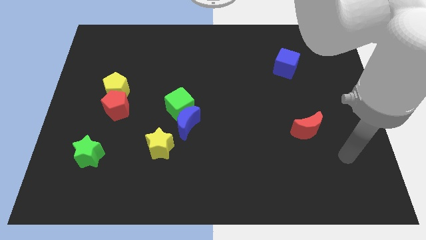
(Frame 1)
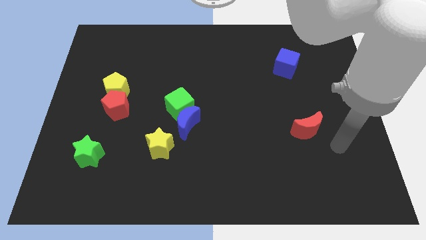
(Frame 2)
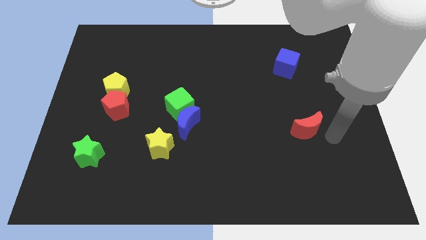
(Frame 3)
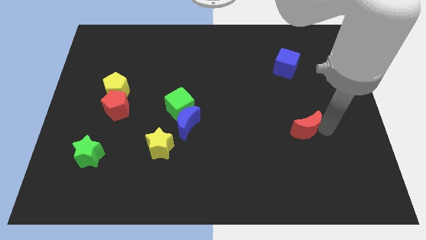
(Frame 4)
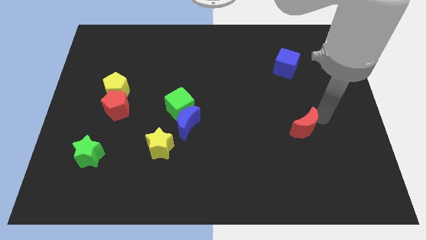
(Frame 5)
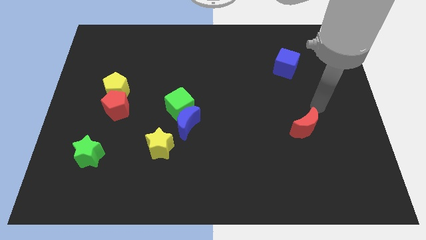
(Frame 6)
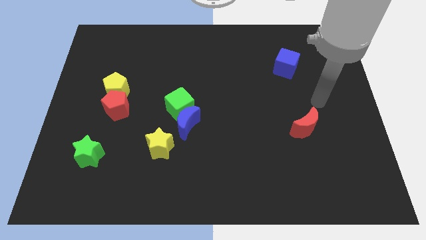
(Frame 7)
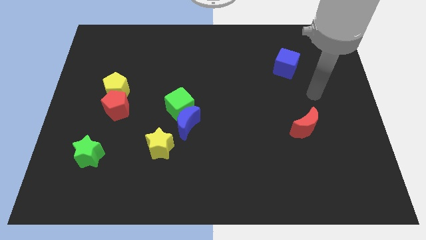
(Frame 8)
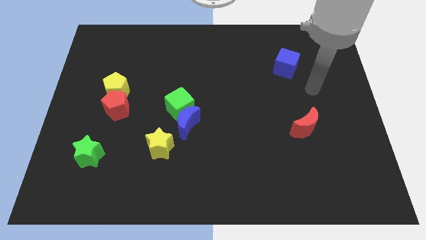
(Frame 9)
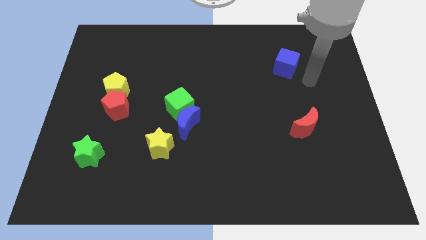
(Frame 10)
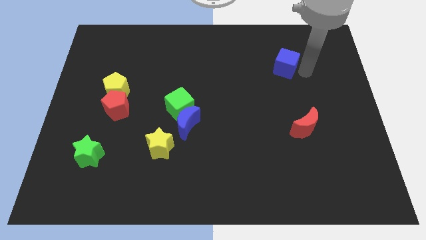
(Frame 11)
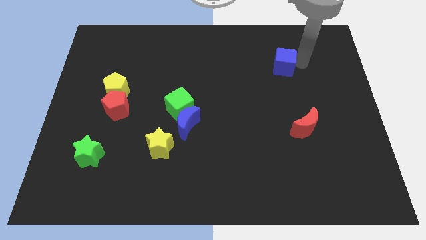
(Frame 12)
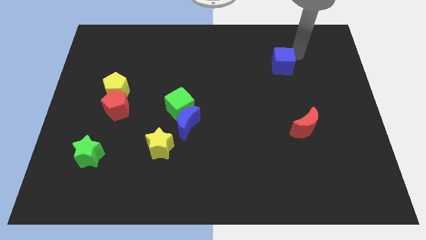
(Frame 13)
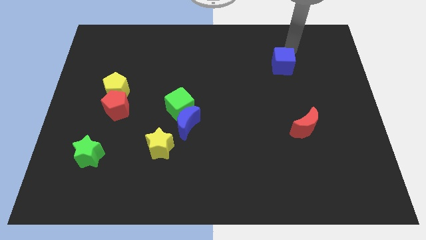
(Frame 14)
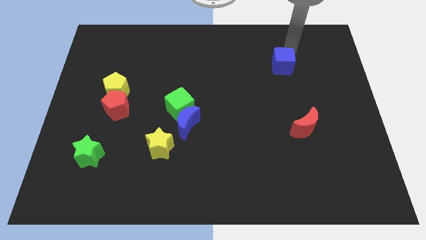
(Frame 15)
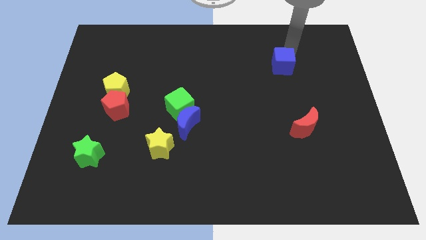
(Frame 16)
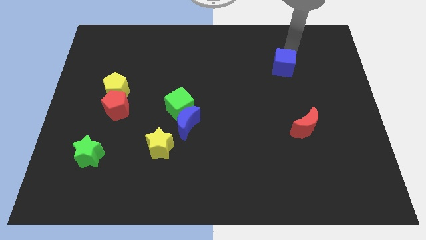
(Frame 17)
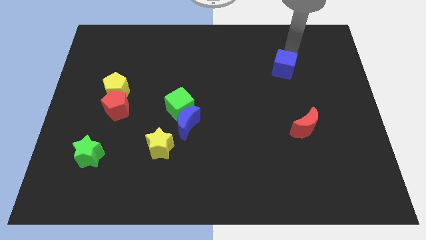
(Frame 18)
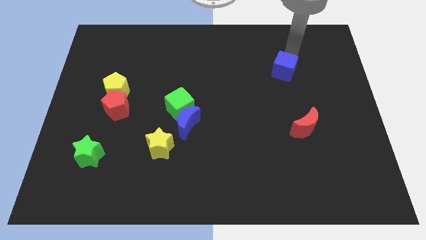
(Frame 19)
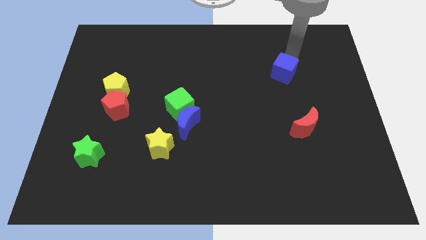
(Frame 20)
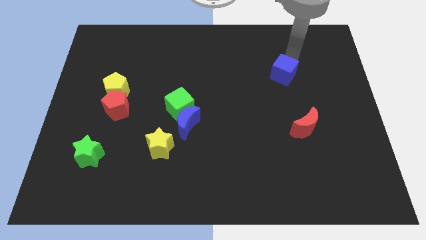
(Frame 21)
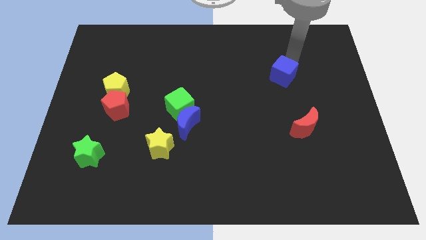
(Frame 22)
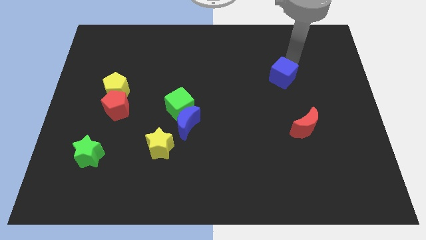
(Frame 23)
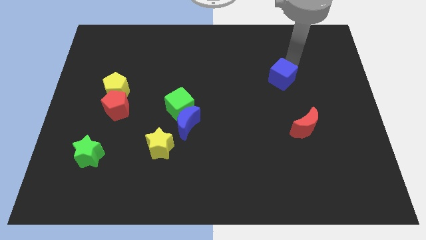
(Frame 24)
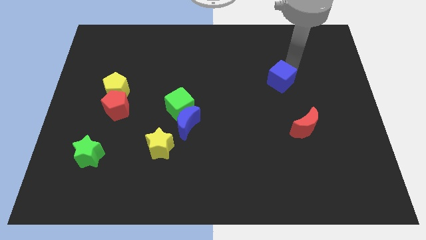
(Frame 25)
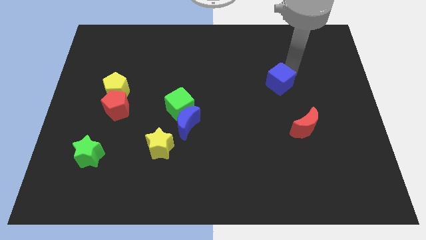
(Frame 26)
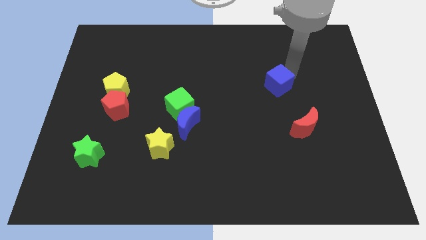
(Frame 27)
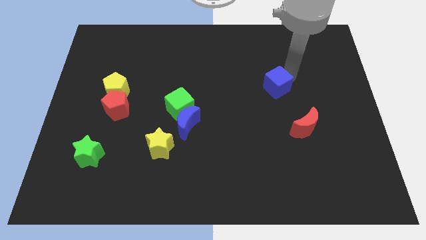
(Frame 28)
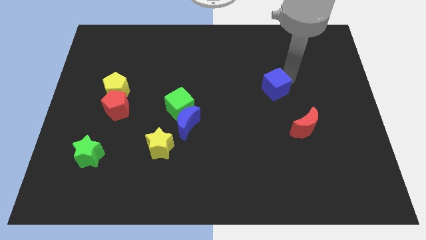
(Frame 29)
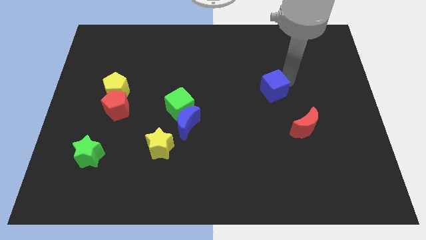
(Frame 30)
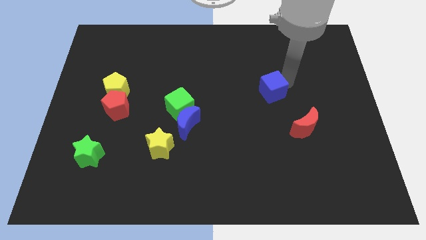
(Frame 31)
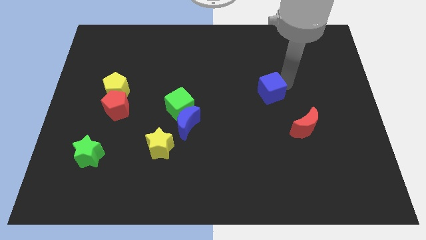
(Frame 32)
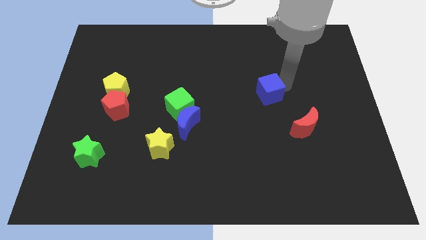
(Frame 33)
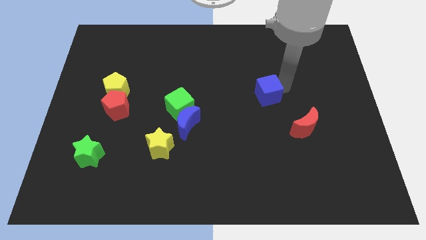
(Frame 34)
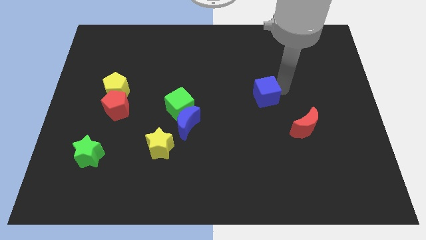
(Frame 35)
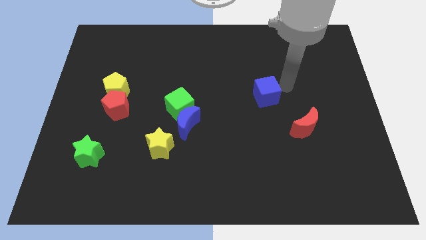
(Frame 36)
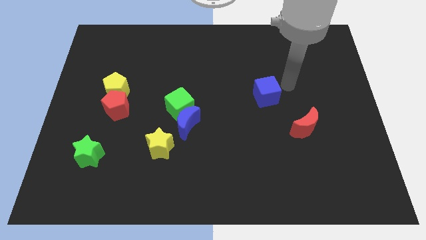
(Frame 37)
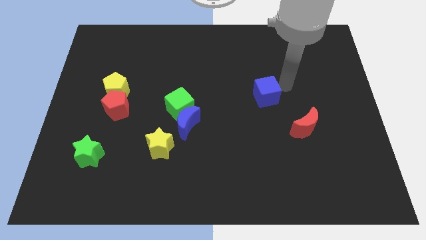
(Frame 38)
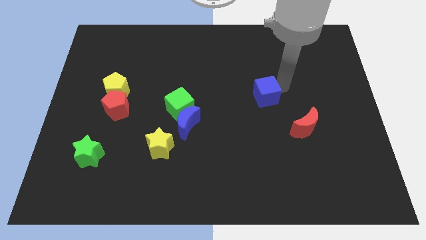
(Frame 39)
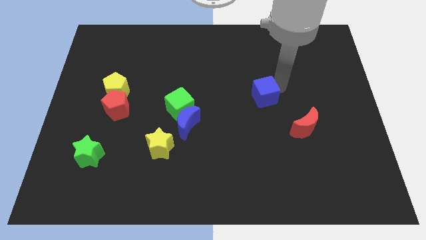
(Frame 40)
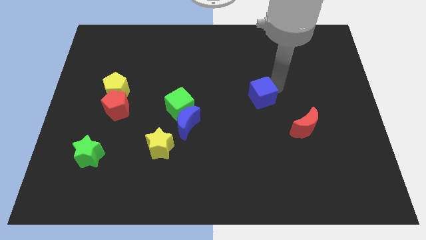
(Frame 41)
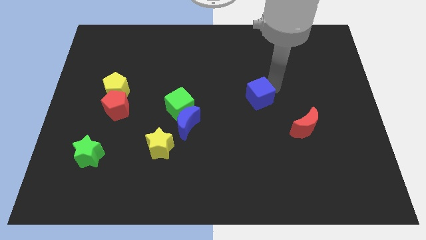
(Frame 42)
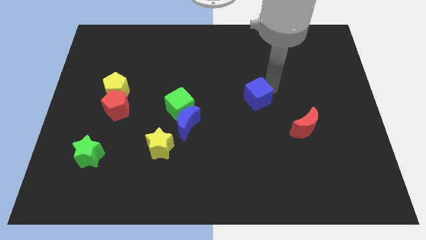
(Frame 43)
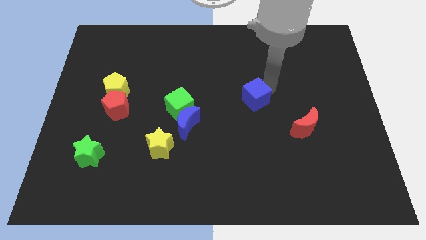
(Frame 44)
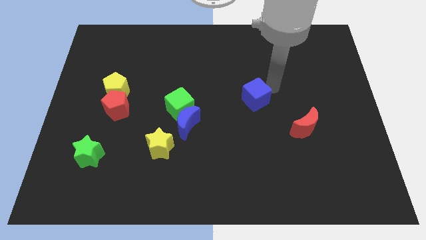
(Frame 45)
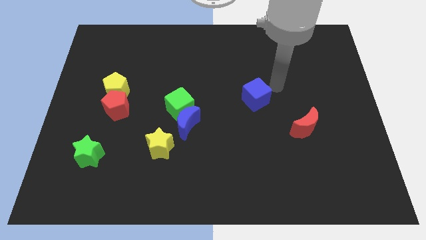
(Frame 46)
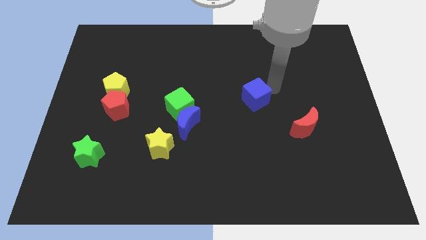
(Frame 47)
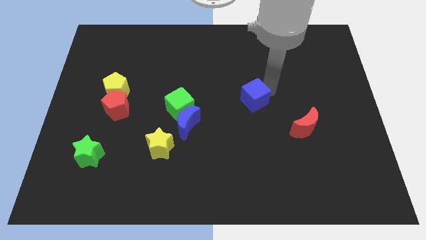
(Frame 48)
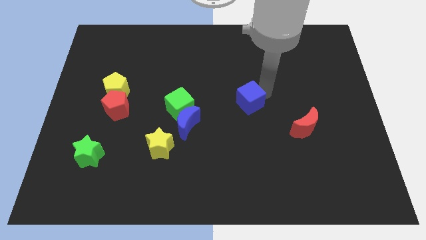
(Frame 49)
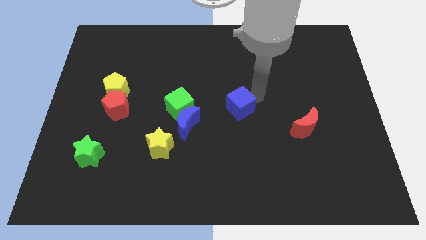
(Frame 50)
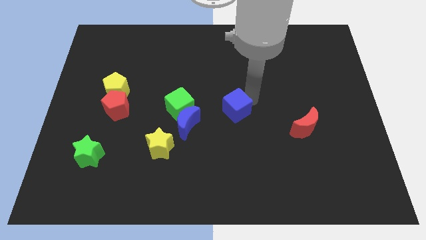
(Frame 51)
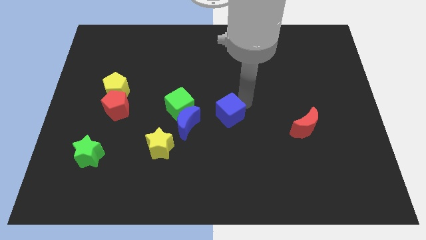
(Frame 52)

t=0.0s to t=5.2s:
slide the blue cube down and to the left diagonally

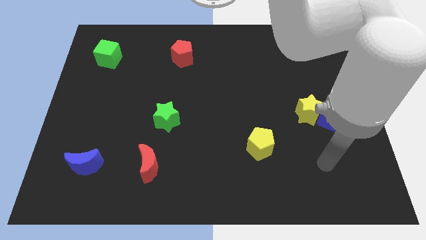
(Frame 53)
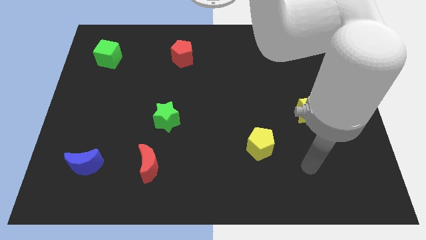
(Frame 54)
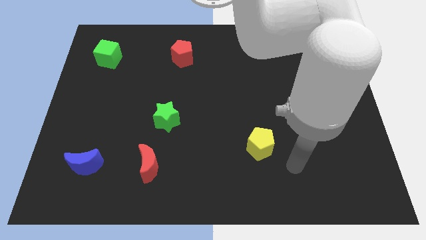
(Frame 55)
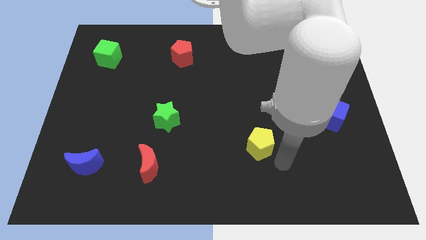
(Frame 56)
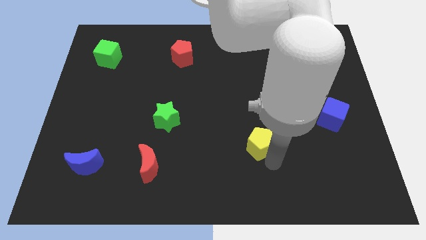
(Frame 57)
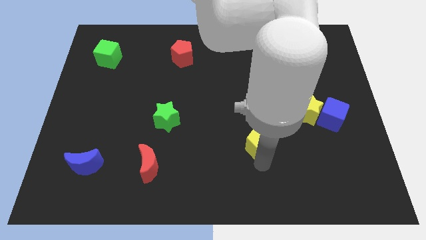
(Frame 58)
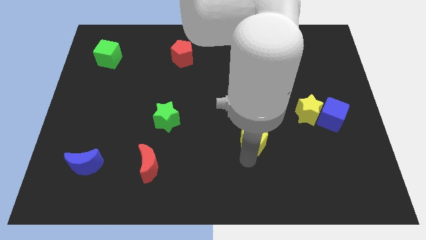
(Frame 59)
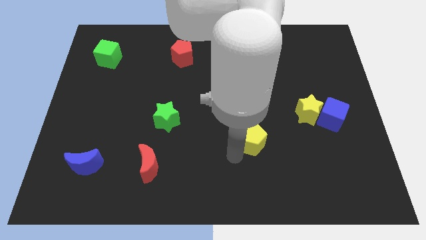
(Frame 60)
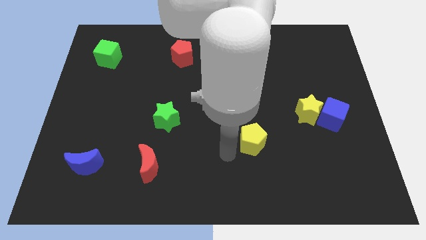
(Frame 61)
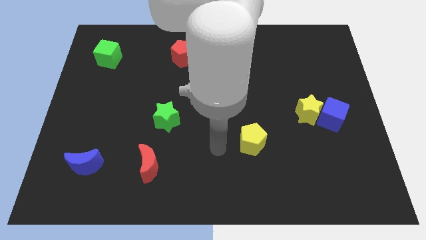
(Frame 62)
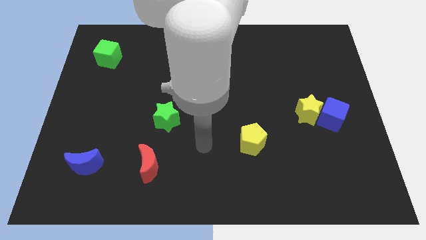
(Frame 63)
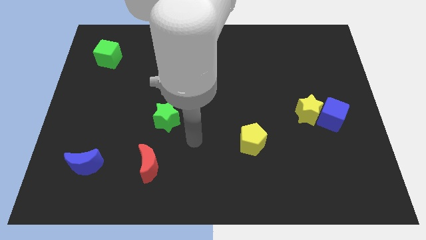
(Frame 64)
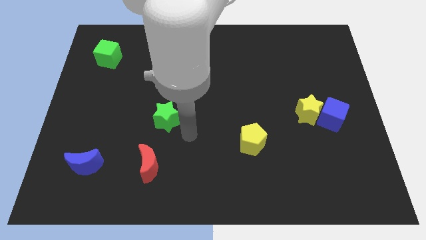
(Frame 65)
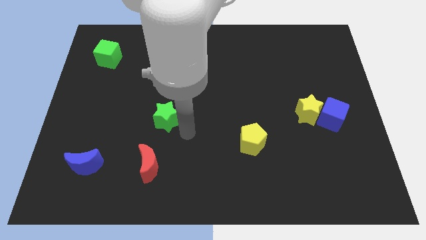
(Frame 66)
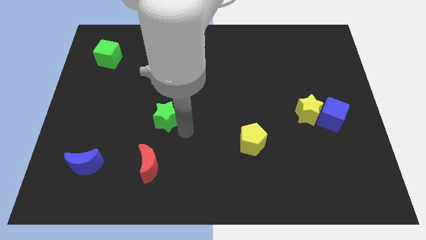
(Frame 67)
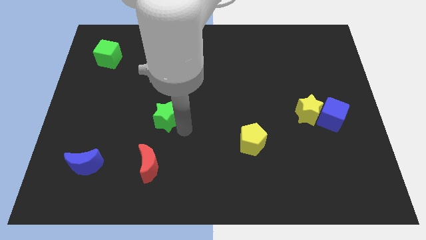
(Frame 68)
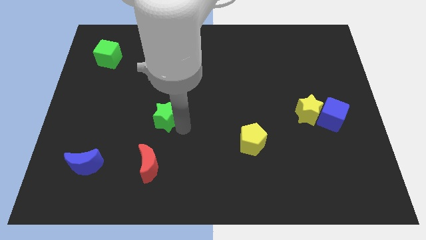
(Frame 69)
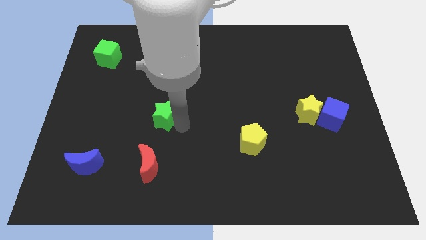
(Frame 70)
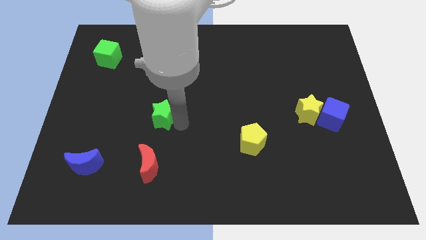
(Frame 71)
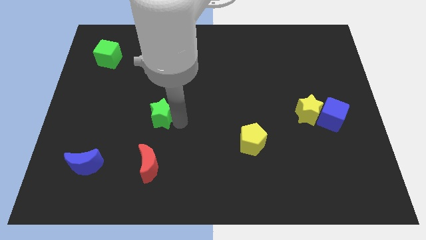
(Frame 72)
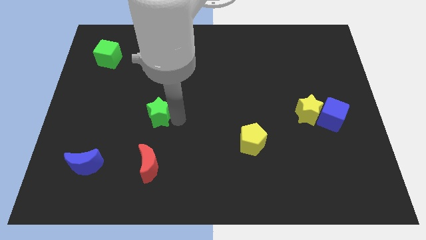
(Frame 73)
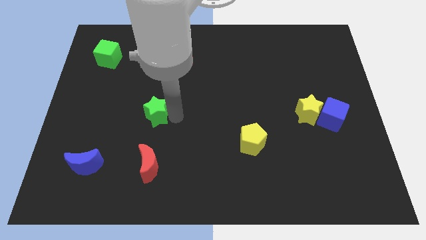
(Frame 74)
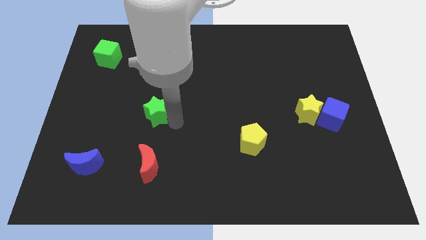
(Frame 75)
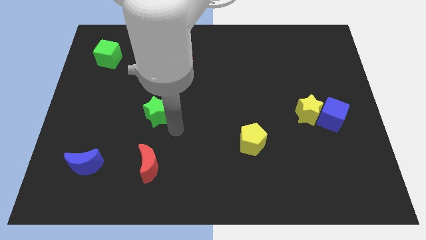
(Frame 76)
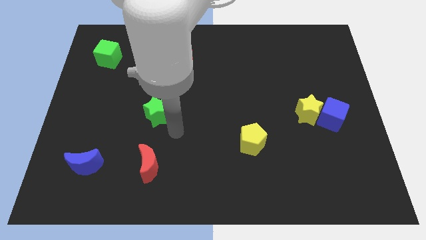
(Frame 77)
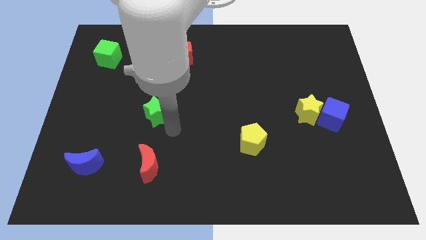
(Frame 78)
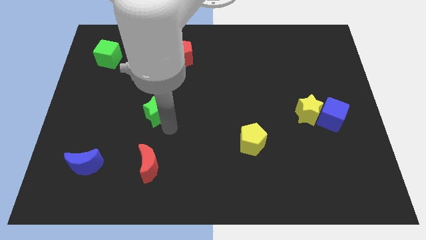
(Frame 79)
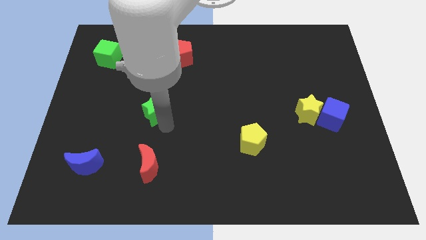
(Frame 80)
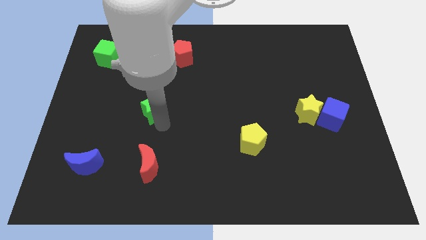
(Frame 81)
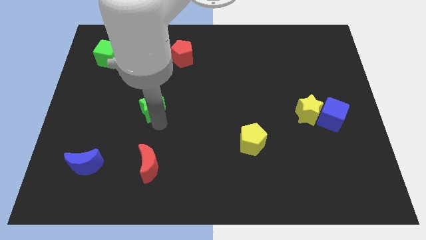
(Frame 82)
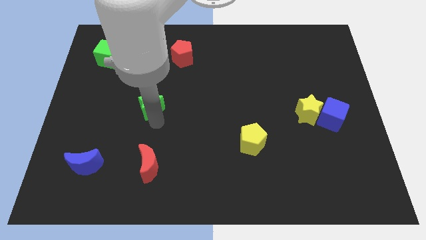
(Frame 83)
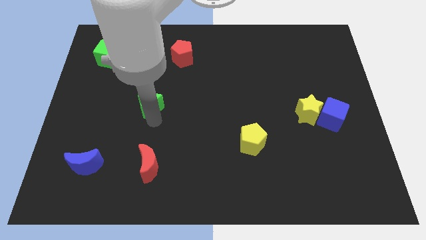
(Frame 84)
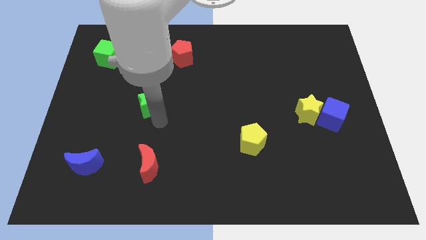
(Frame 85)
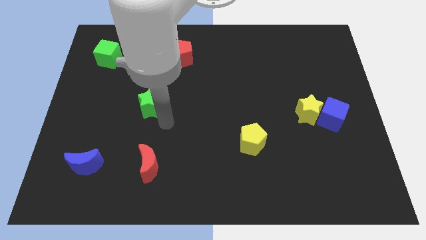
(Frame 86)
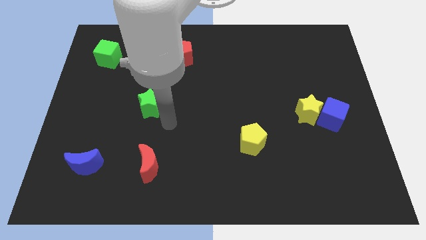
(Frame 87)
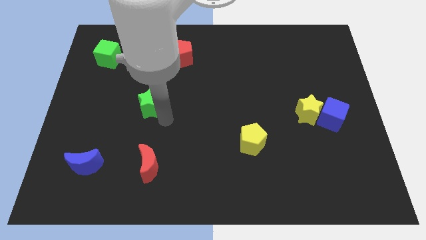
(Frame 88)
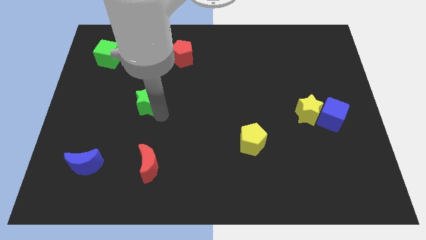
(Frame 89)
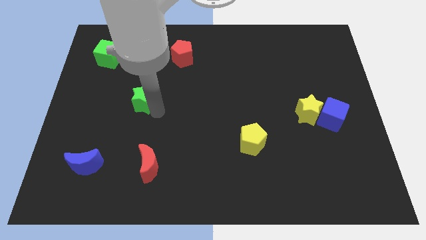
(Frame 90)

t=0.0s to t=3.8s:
move the green star a little upwards and left diagonally
